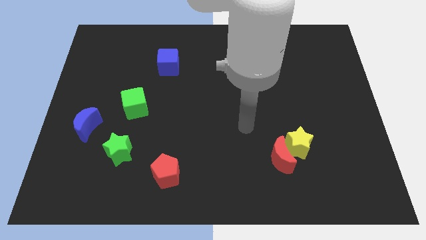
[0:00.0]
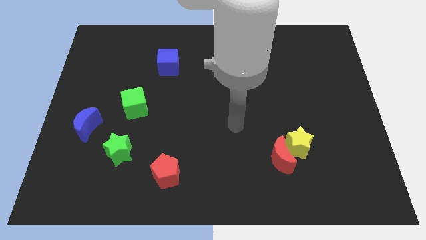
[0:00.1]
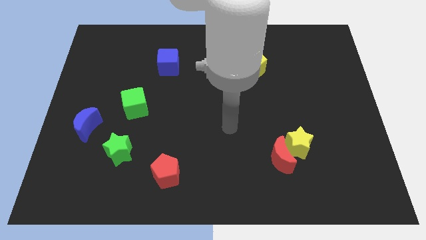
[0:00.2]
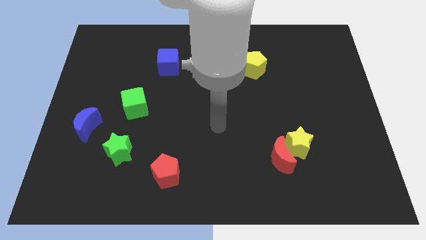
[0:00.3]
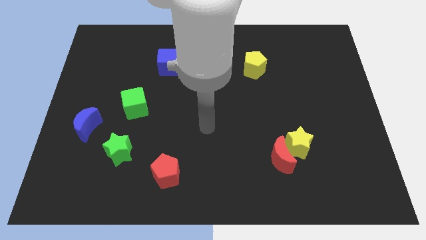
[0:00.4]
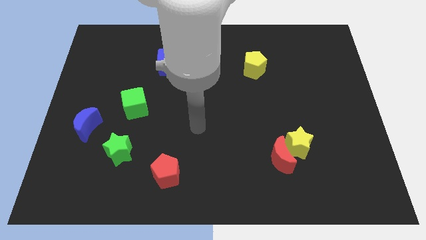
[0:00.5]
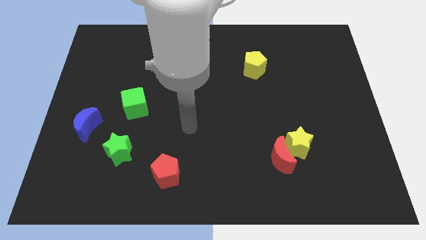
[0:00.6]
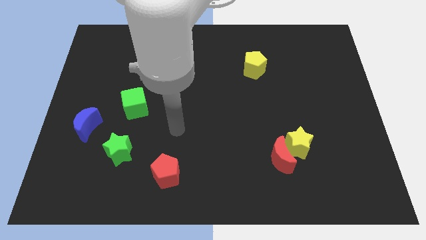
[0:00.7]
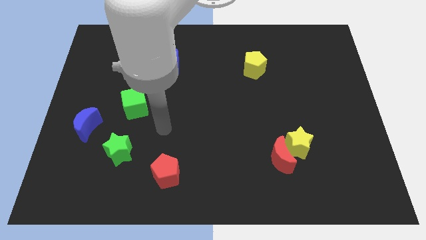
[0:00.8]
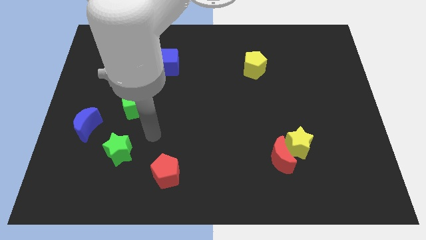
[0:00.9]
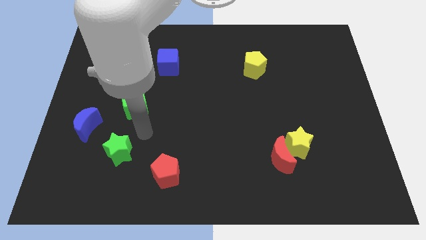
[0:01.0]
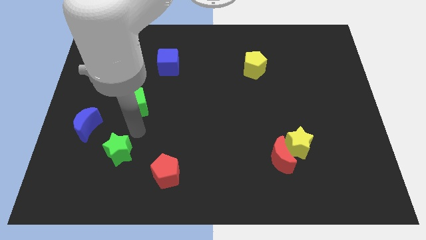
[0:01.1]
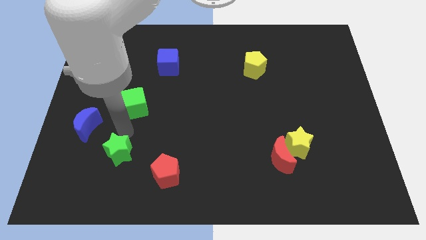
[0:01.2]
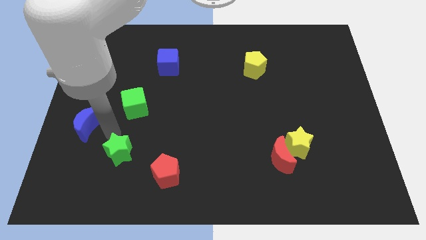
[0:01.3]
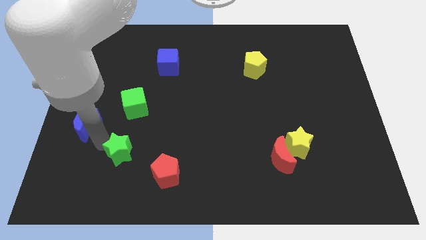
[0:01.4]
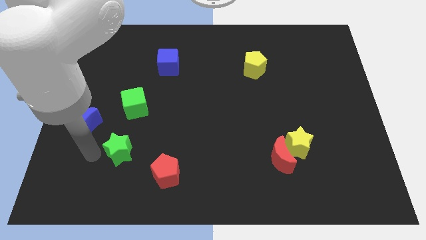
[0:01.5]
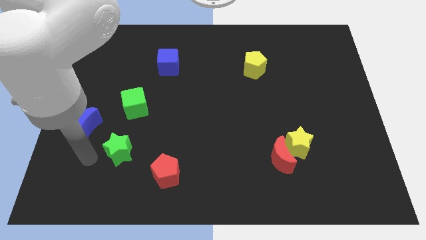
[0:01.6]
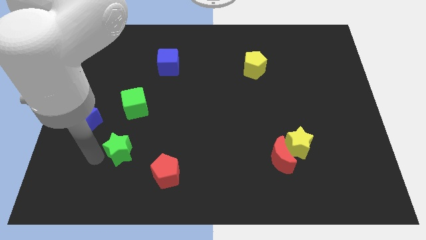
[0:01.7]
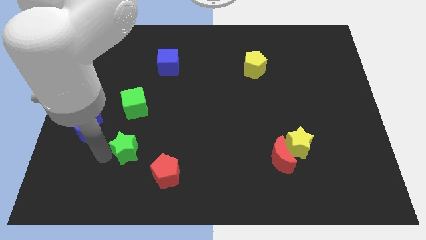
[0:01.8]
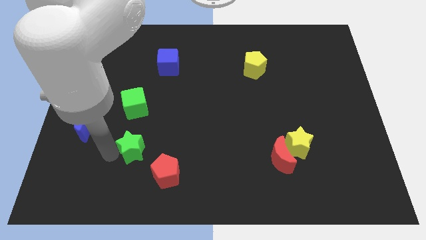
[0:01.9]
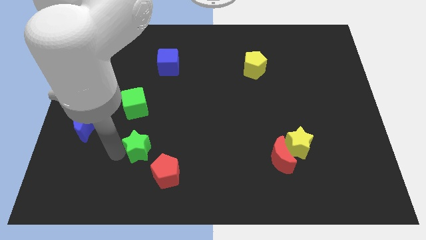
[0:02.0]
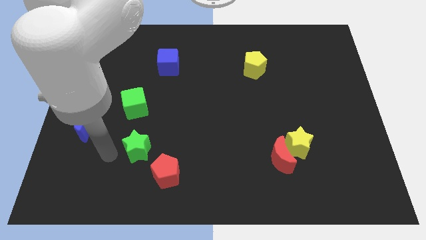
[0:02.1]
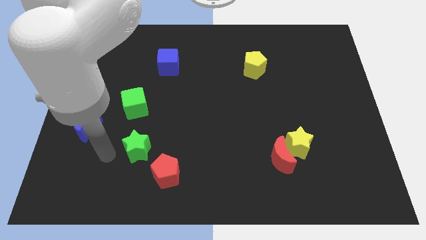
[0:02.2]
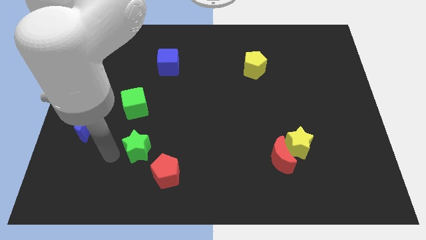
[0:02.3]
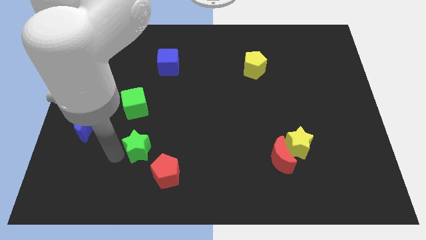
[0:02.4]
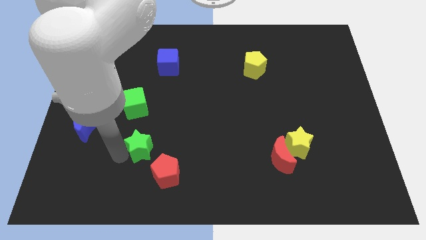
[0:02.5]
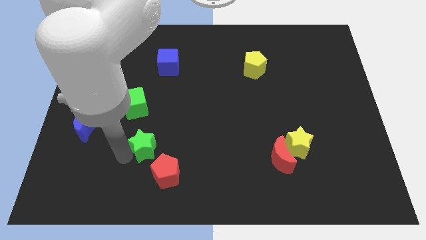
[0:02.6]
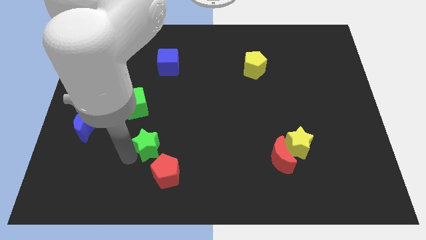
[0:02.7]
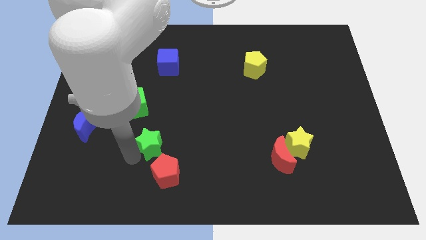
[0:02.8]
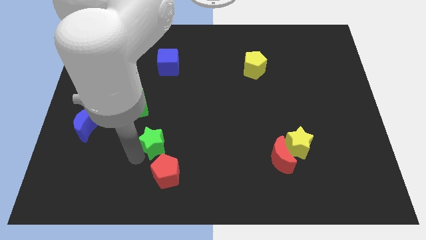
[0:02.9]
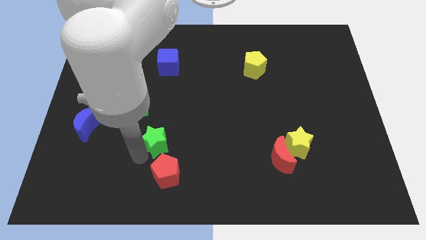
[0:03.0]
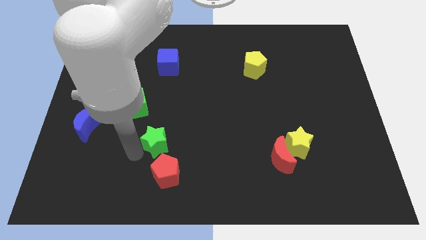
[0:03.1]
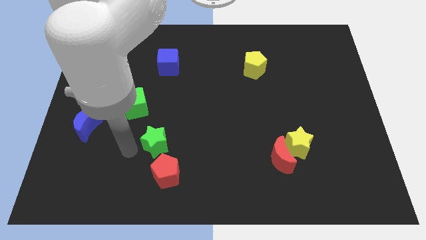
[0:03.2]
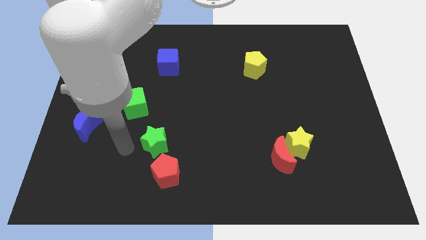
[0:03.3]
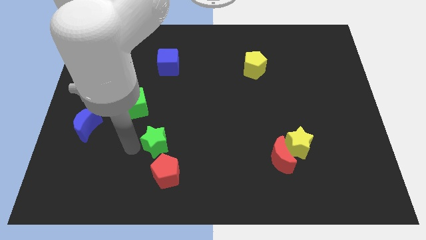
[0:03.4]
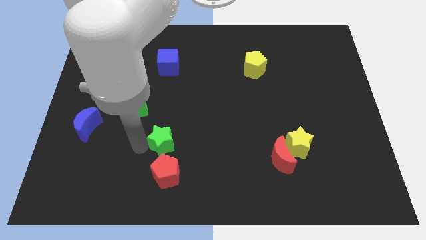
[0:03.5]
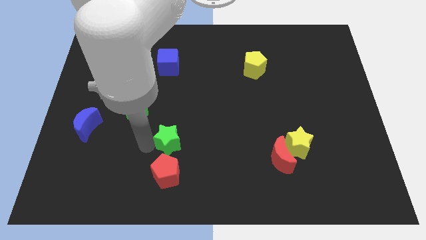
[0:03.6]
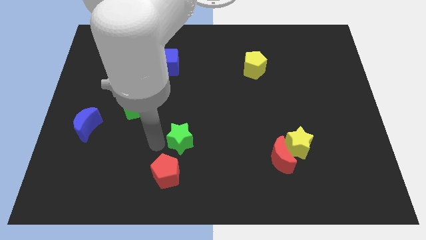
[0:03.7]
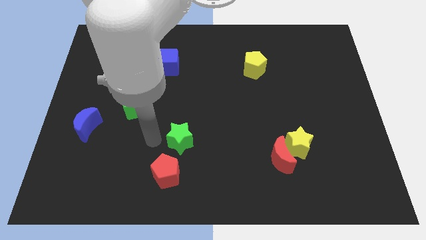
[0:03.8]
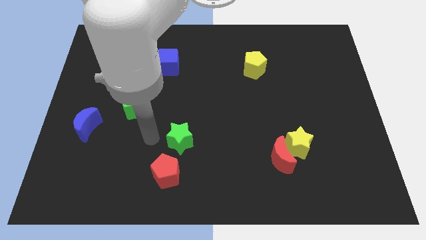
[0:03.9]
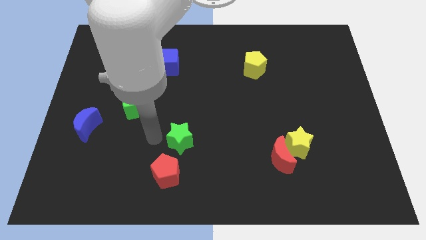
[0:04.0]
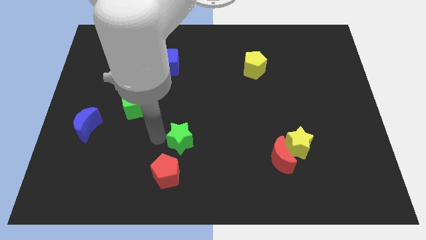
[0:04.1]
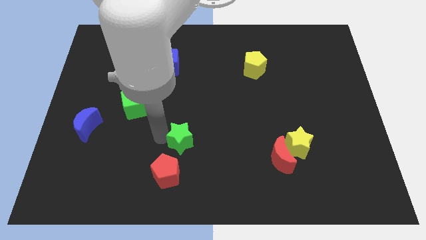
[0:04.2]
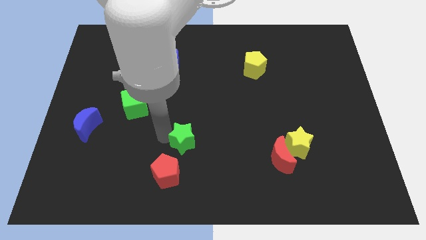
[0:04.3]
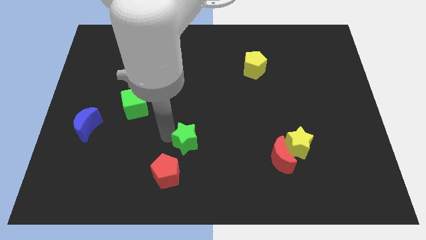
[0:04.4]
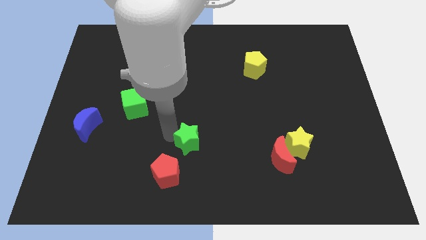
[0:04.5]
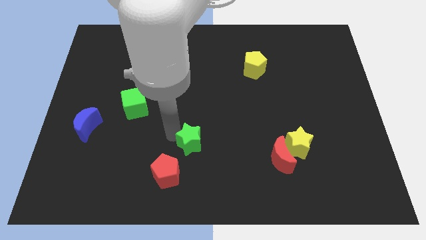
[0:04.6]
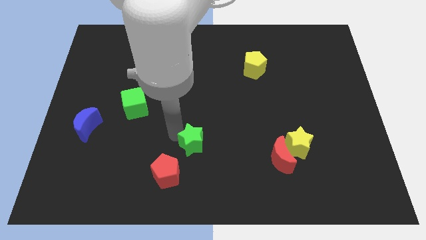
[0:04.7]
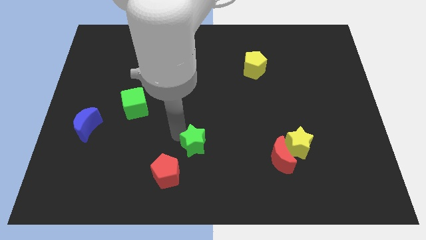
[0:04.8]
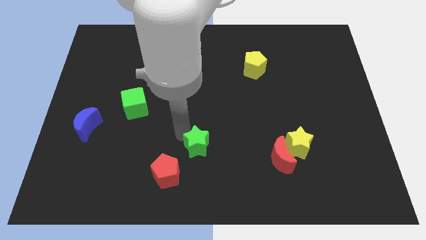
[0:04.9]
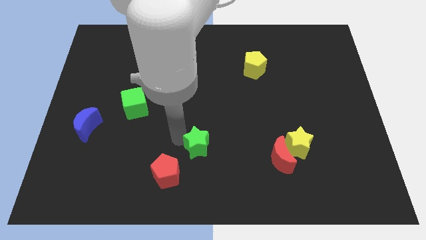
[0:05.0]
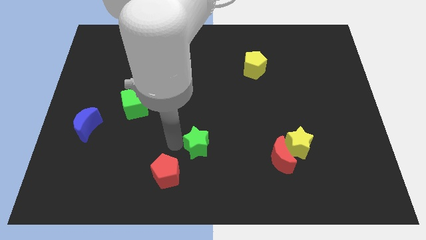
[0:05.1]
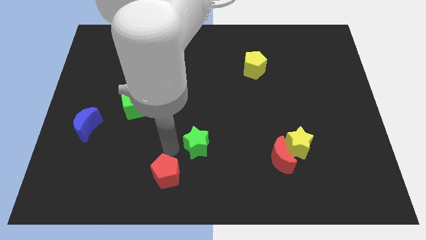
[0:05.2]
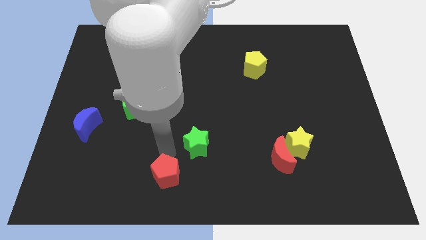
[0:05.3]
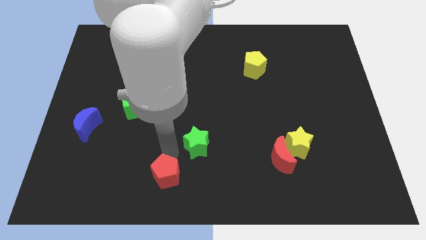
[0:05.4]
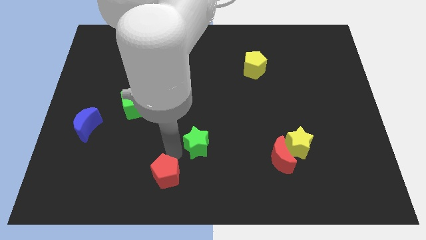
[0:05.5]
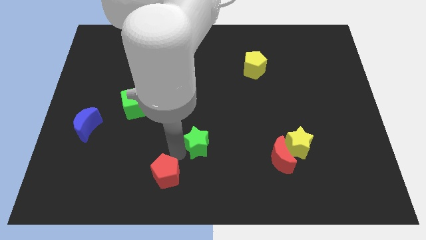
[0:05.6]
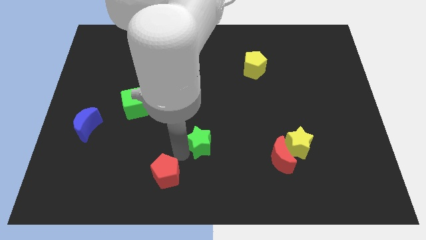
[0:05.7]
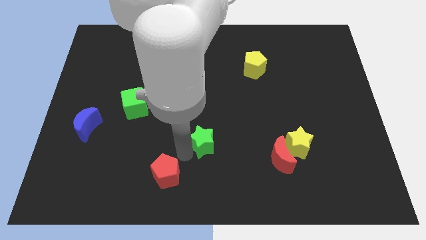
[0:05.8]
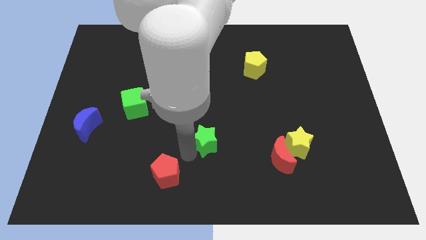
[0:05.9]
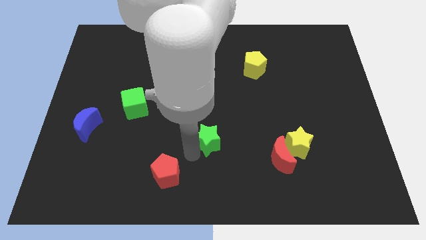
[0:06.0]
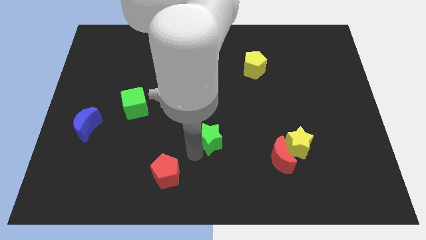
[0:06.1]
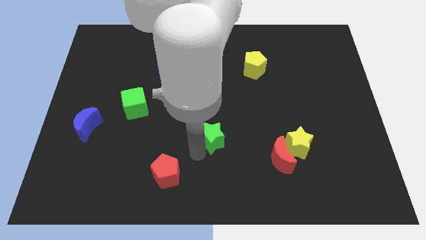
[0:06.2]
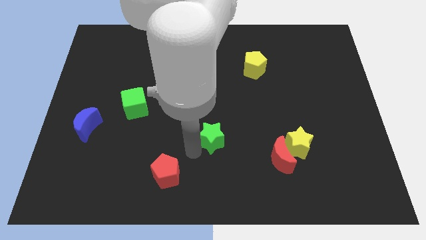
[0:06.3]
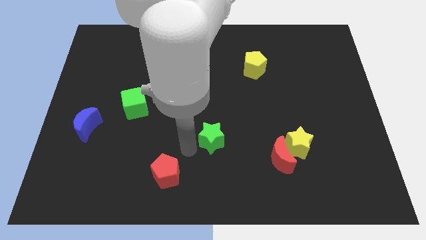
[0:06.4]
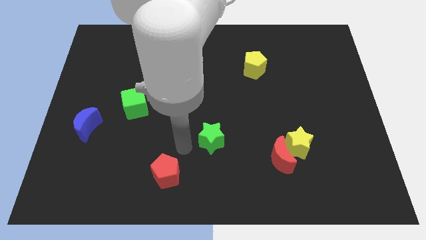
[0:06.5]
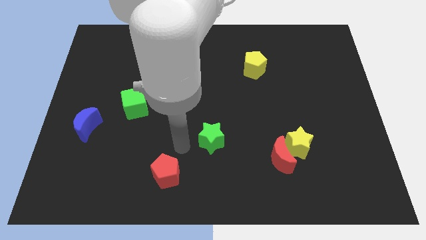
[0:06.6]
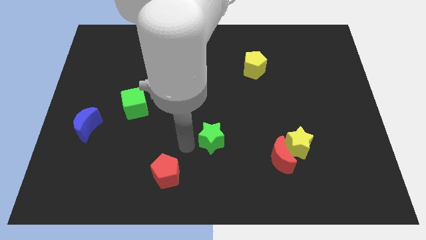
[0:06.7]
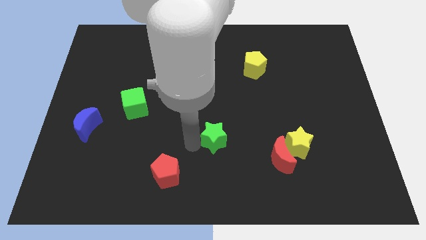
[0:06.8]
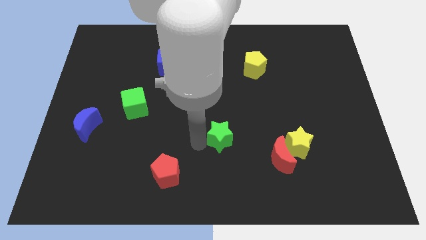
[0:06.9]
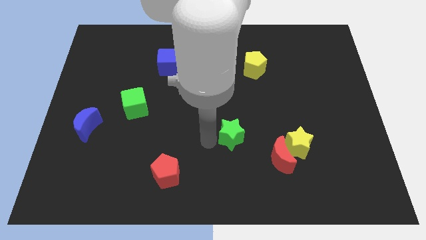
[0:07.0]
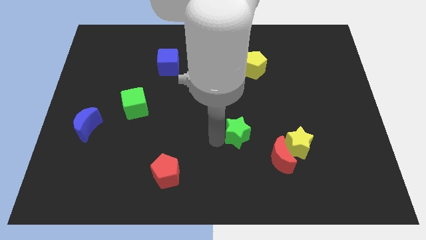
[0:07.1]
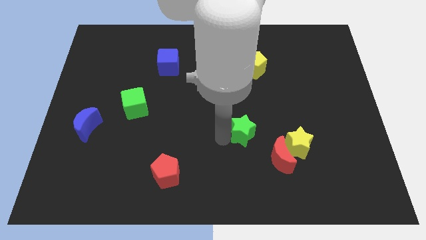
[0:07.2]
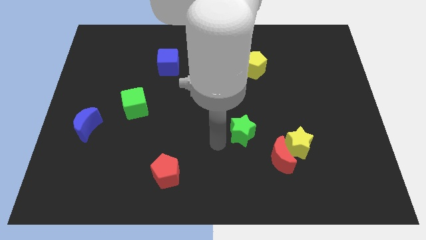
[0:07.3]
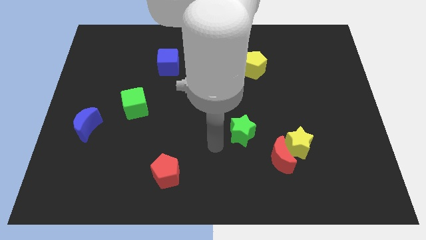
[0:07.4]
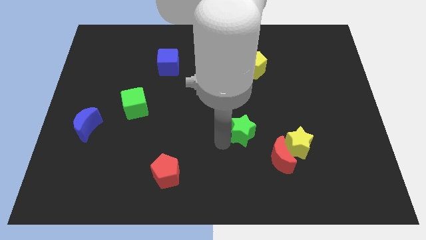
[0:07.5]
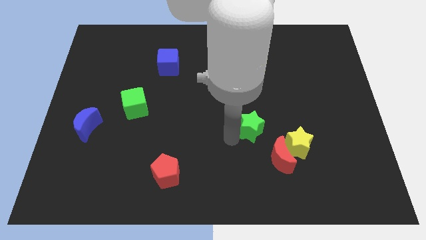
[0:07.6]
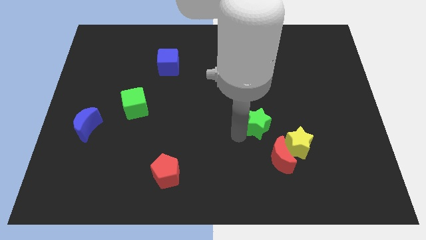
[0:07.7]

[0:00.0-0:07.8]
push the green star to the top side of the red moon
